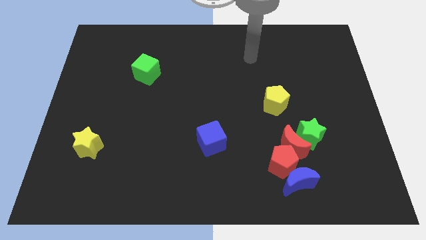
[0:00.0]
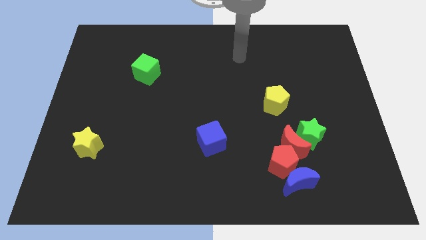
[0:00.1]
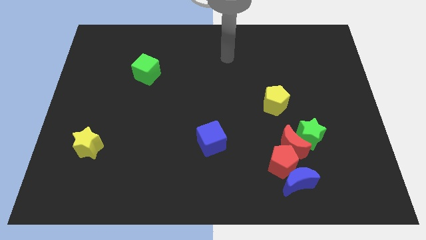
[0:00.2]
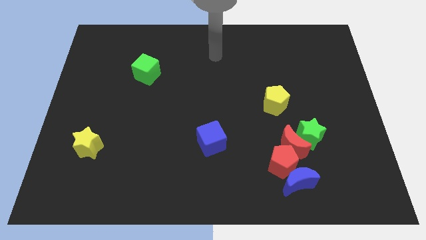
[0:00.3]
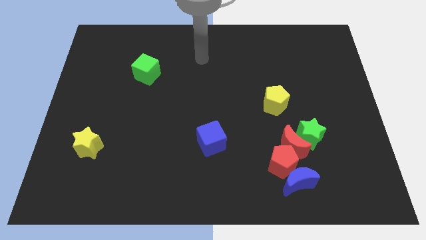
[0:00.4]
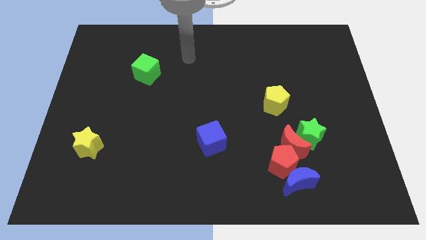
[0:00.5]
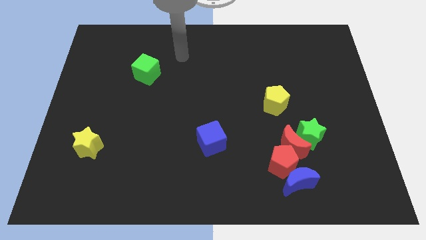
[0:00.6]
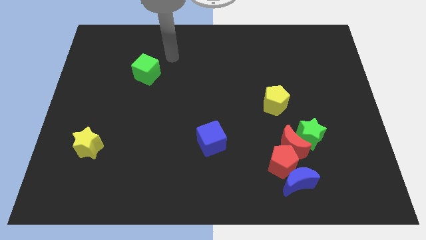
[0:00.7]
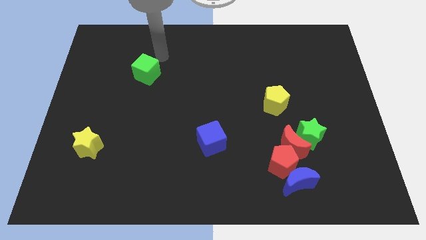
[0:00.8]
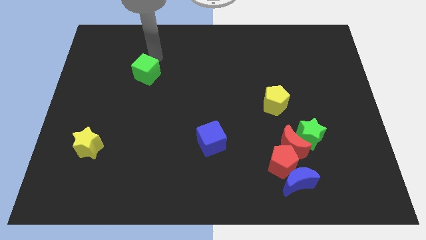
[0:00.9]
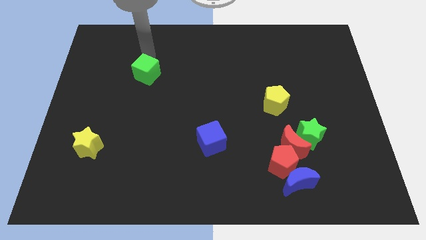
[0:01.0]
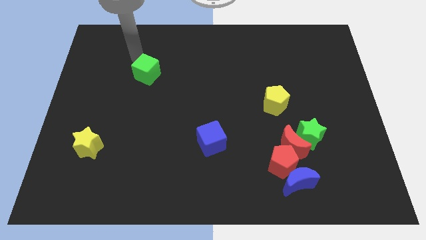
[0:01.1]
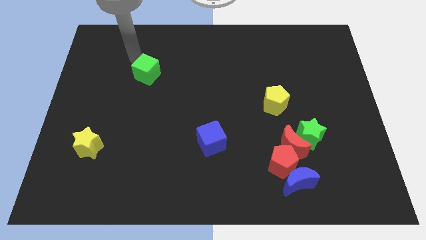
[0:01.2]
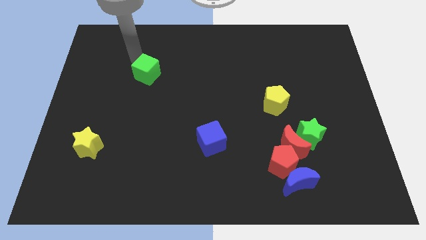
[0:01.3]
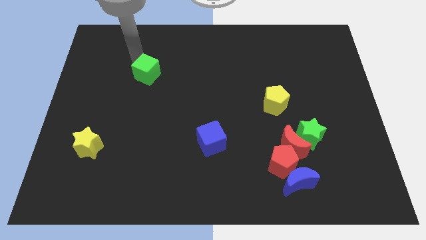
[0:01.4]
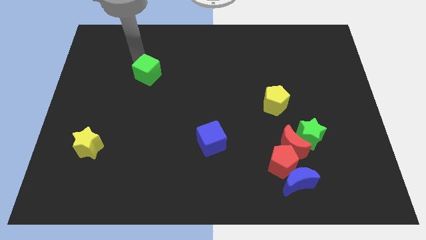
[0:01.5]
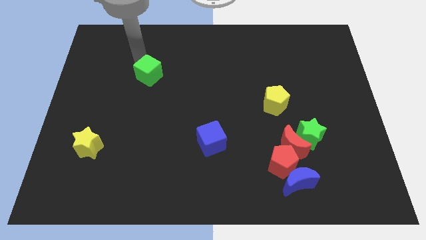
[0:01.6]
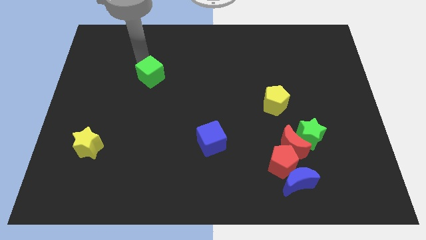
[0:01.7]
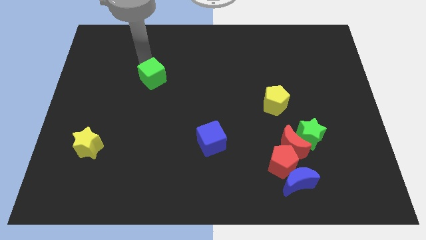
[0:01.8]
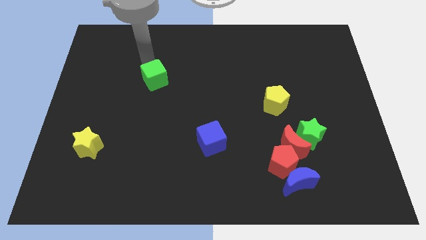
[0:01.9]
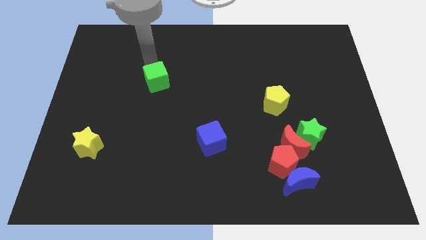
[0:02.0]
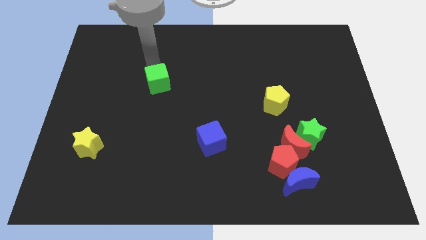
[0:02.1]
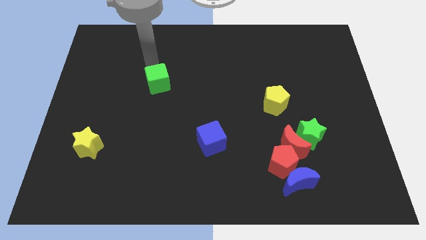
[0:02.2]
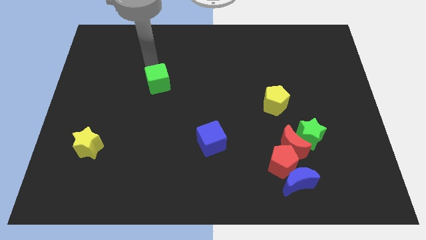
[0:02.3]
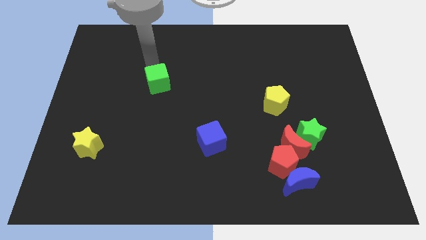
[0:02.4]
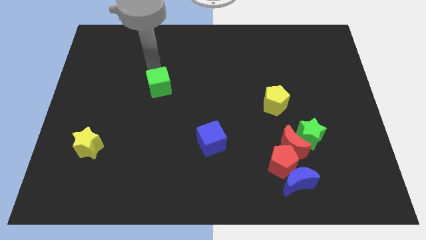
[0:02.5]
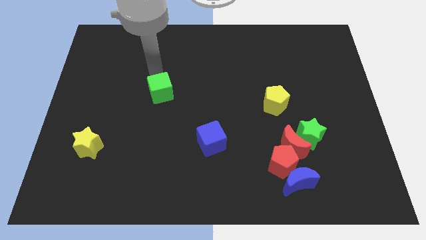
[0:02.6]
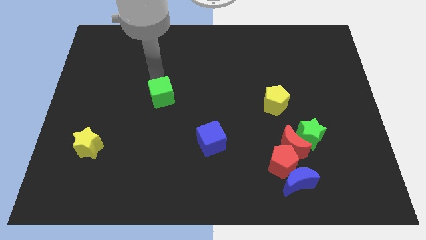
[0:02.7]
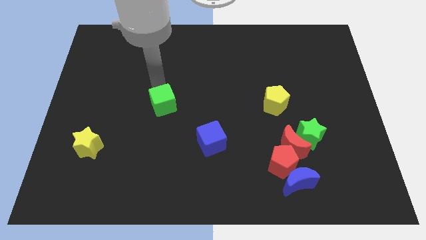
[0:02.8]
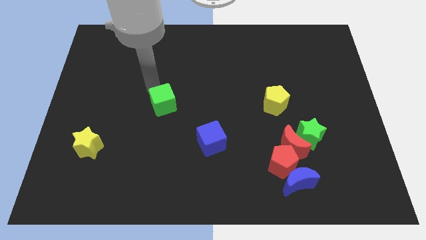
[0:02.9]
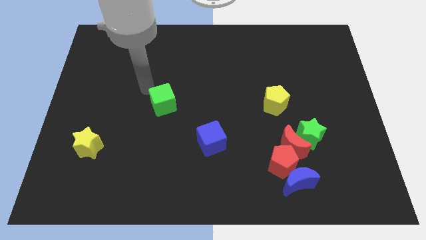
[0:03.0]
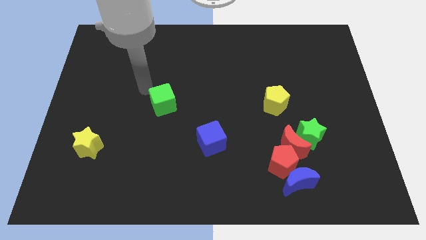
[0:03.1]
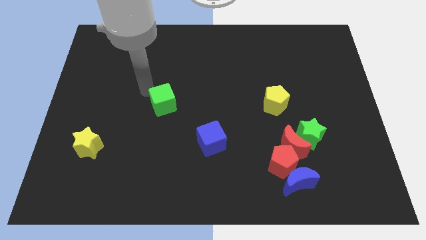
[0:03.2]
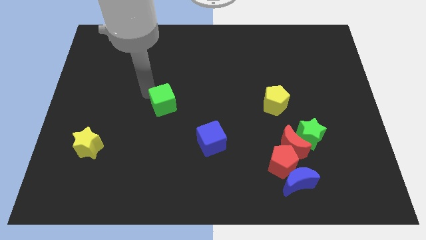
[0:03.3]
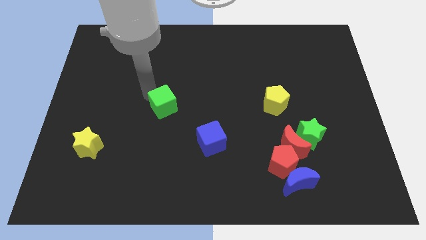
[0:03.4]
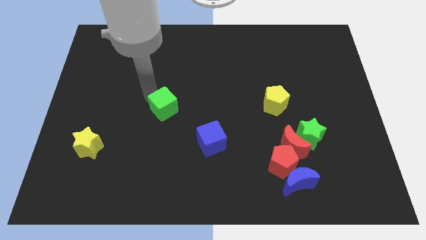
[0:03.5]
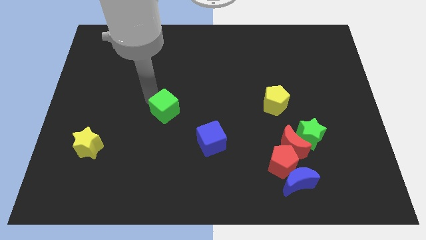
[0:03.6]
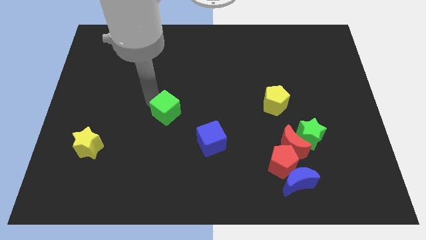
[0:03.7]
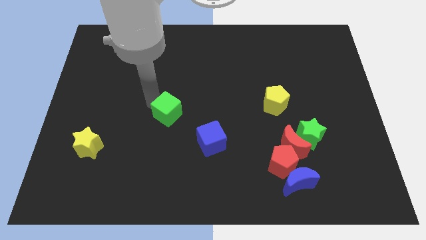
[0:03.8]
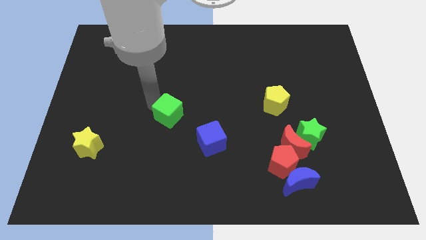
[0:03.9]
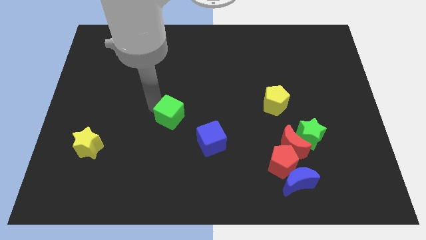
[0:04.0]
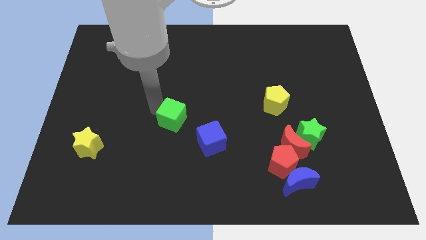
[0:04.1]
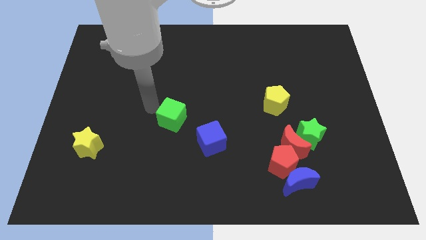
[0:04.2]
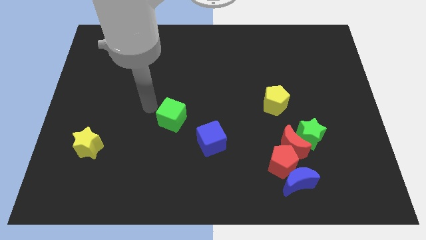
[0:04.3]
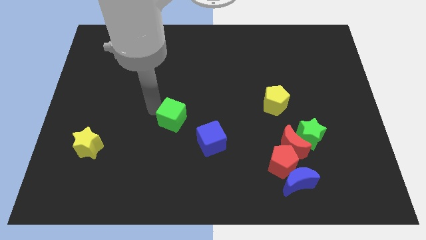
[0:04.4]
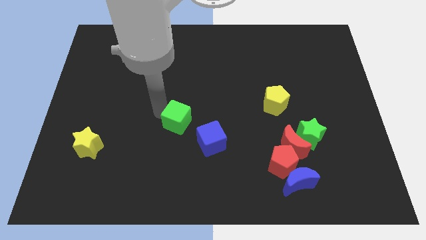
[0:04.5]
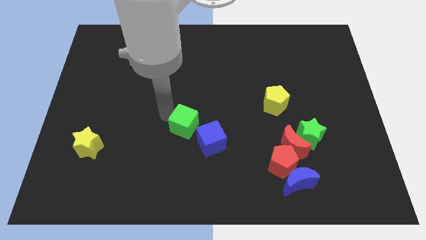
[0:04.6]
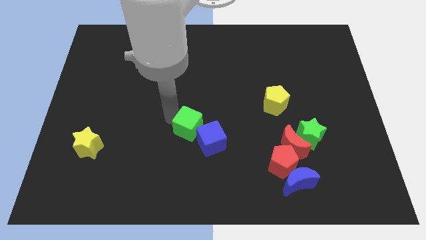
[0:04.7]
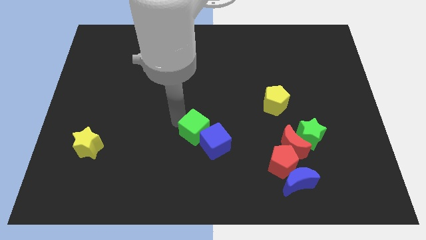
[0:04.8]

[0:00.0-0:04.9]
slide the green cube towards the blue cube

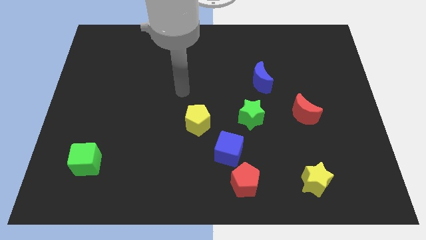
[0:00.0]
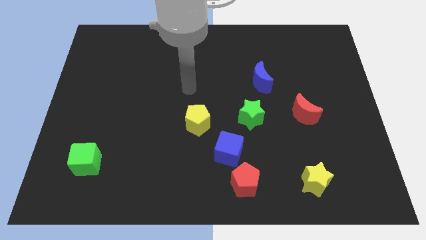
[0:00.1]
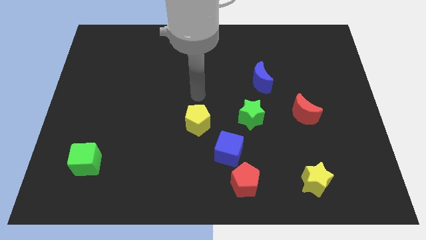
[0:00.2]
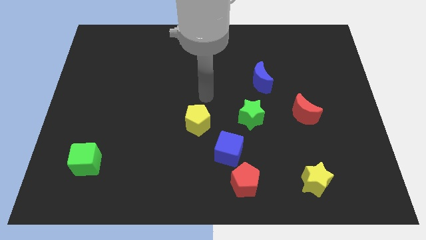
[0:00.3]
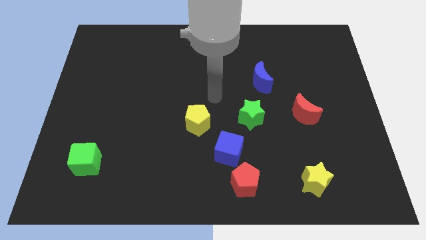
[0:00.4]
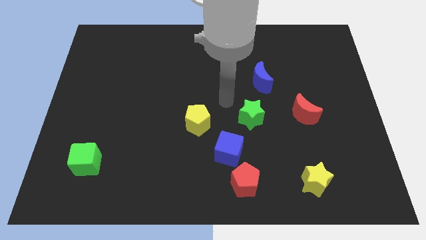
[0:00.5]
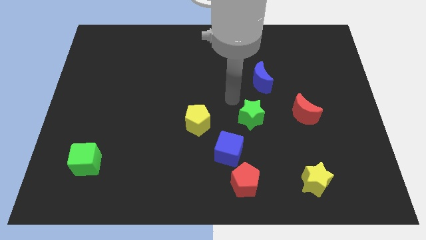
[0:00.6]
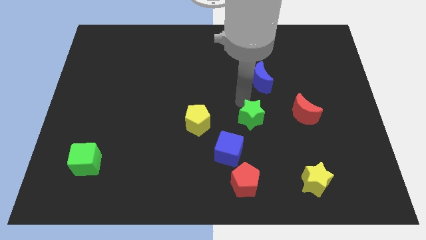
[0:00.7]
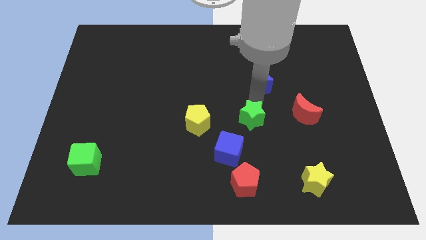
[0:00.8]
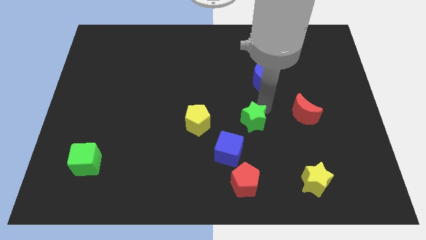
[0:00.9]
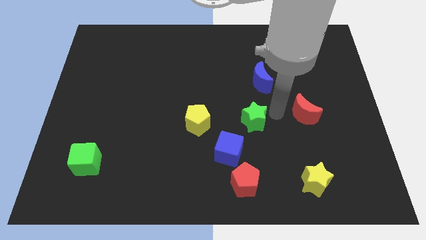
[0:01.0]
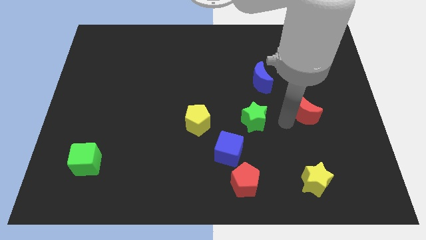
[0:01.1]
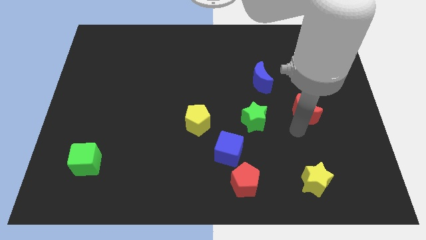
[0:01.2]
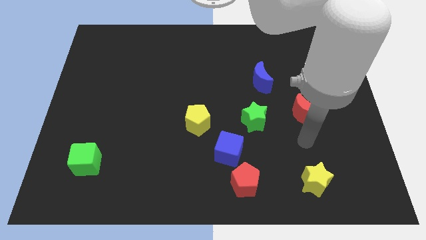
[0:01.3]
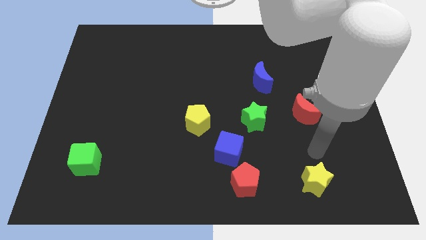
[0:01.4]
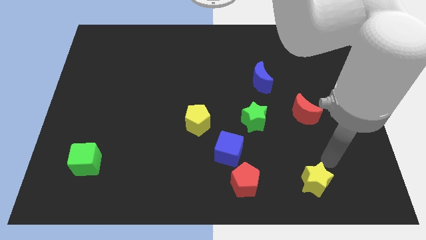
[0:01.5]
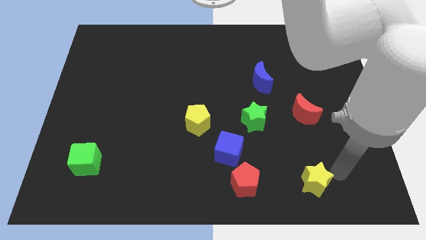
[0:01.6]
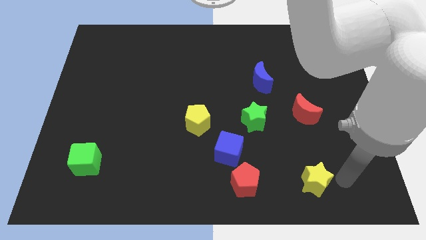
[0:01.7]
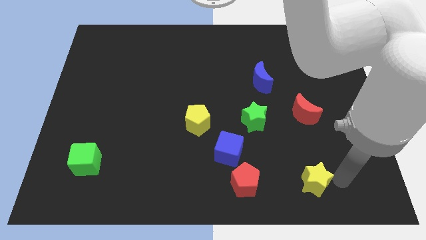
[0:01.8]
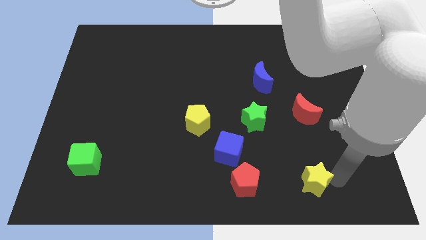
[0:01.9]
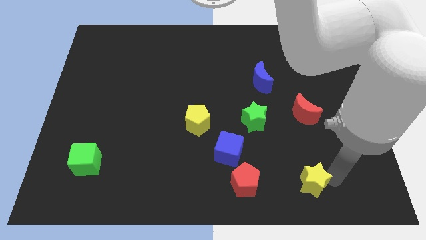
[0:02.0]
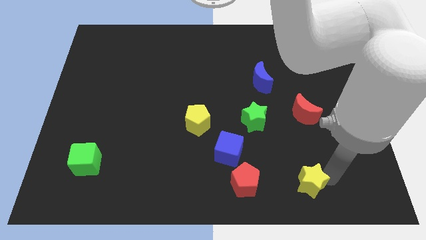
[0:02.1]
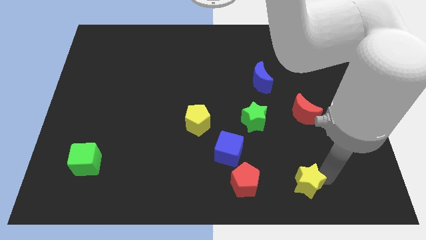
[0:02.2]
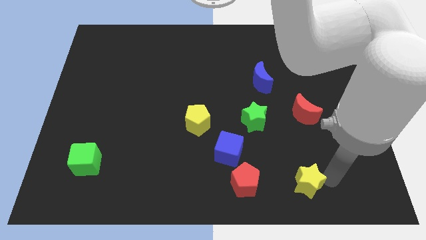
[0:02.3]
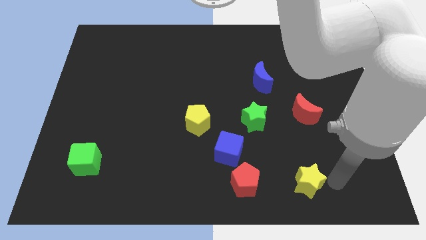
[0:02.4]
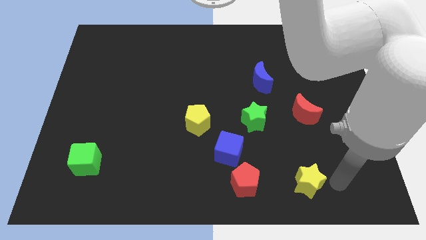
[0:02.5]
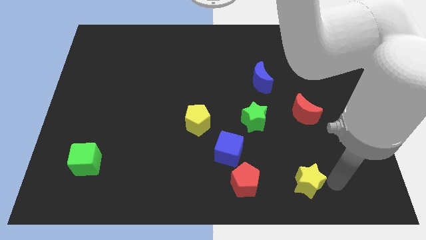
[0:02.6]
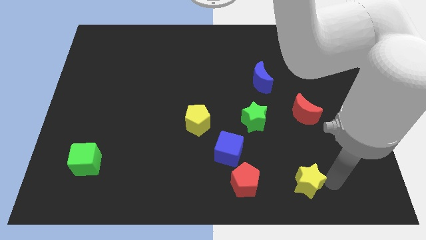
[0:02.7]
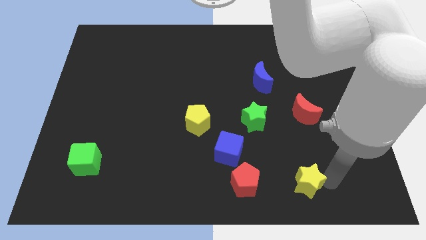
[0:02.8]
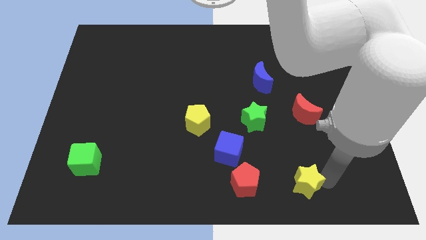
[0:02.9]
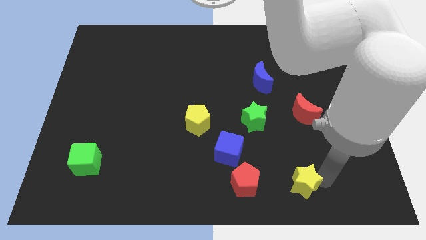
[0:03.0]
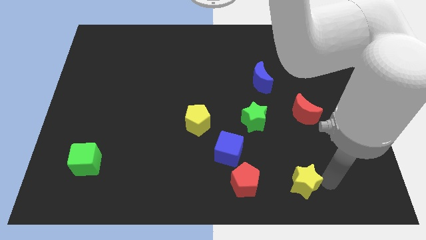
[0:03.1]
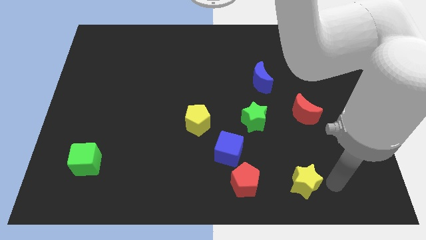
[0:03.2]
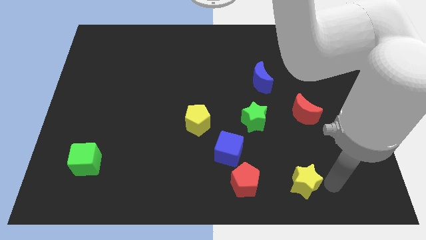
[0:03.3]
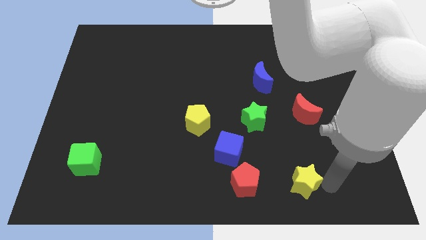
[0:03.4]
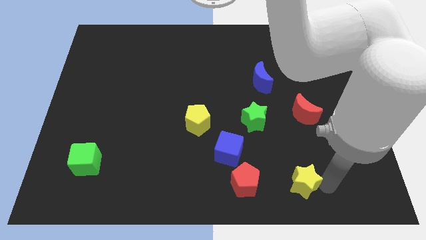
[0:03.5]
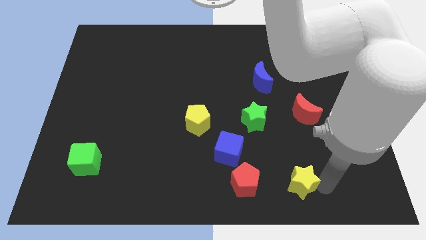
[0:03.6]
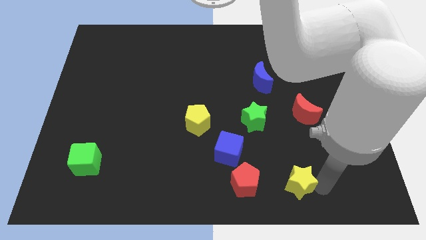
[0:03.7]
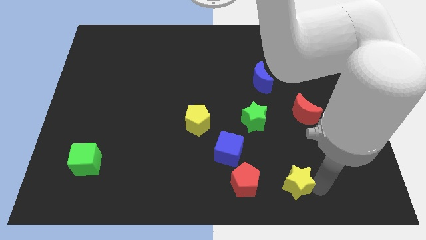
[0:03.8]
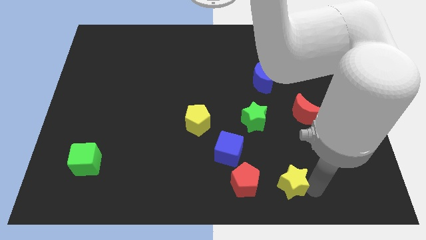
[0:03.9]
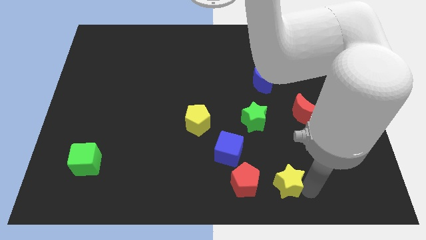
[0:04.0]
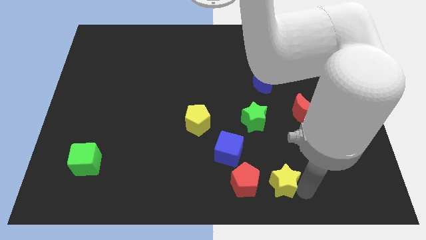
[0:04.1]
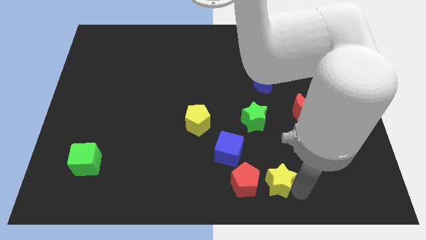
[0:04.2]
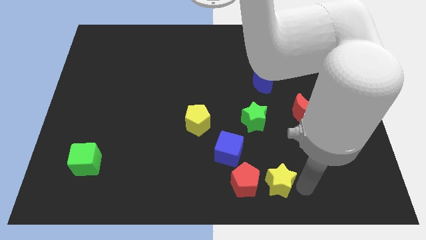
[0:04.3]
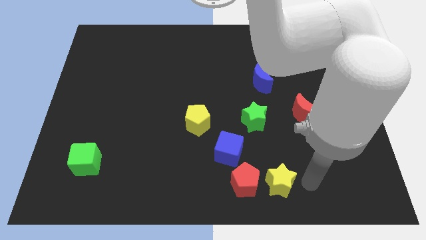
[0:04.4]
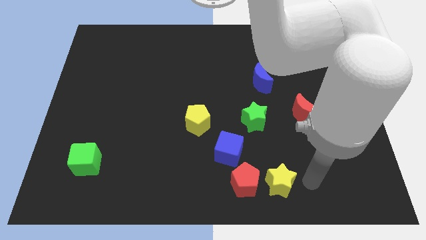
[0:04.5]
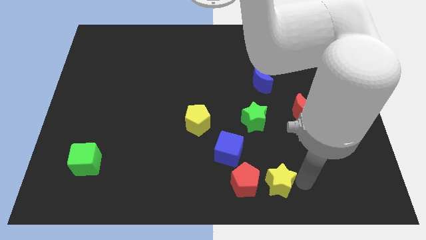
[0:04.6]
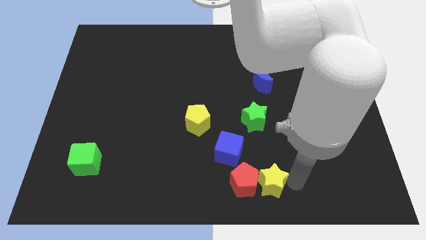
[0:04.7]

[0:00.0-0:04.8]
push the yellow star close to the red pentagon
